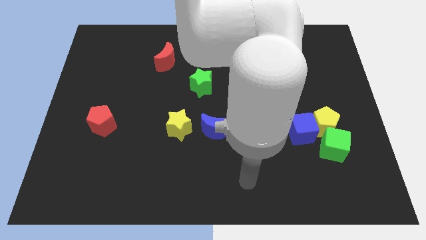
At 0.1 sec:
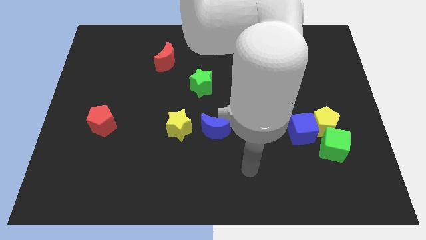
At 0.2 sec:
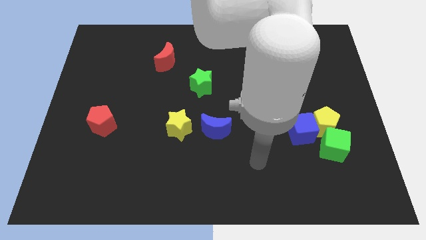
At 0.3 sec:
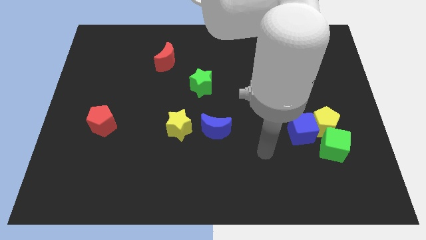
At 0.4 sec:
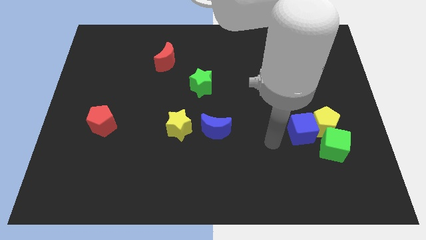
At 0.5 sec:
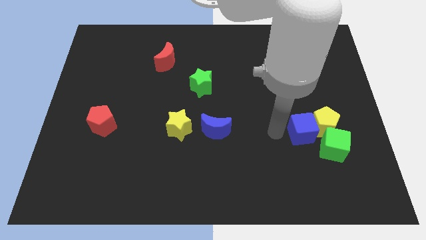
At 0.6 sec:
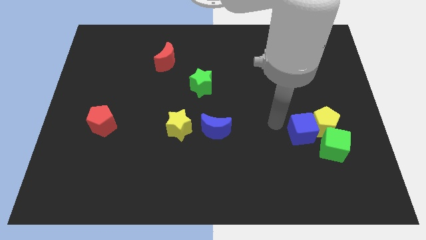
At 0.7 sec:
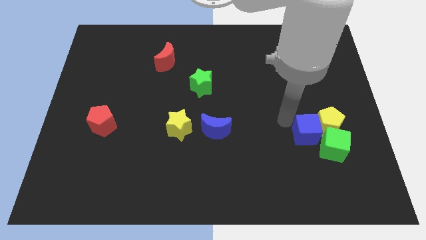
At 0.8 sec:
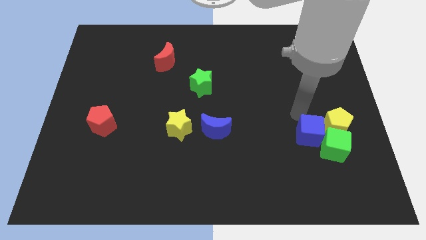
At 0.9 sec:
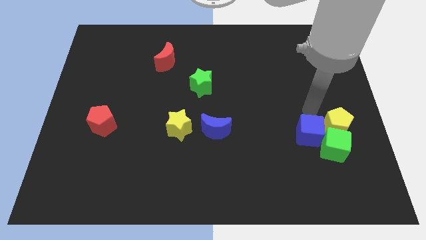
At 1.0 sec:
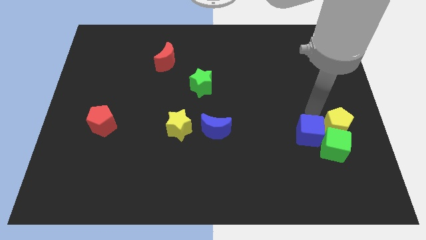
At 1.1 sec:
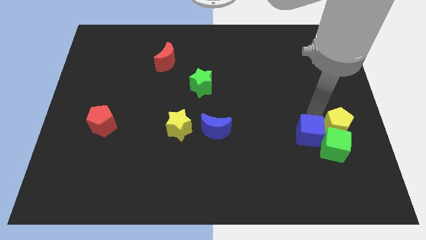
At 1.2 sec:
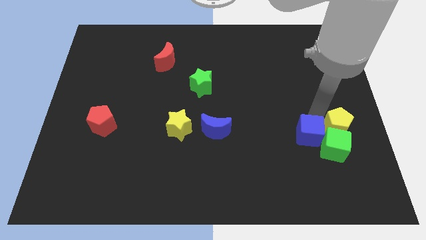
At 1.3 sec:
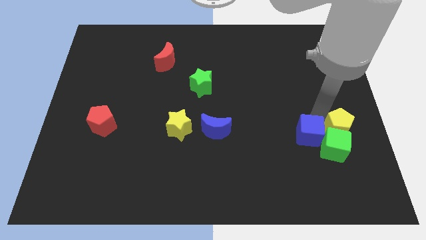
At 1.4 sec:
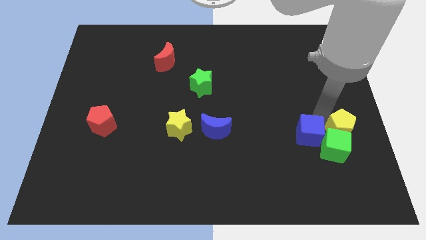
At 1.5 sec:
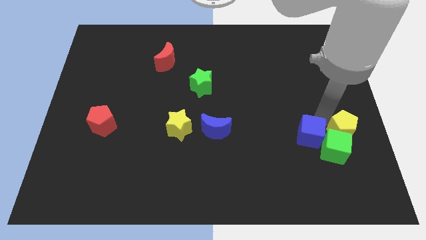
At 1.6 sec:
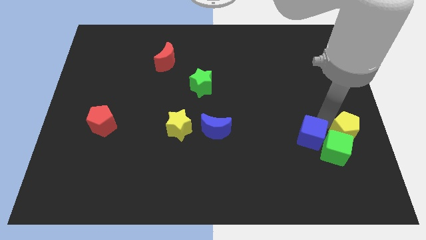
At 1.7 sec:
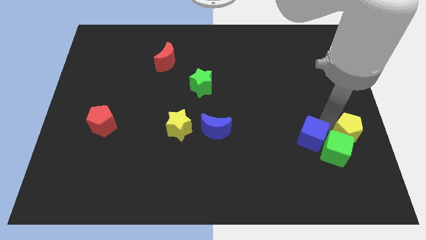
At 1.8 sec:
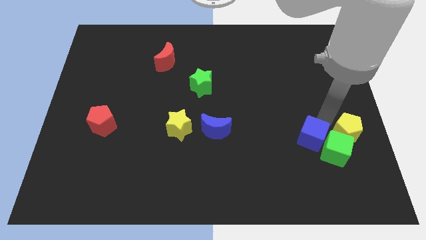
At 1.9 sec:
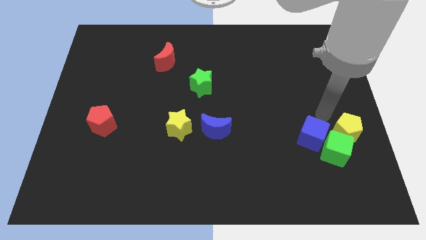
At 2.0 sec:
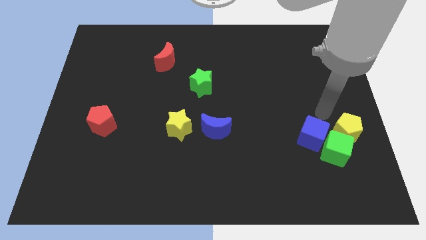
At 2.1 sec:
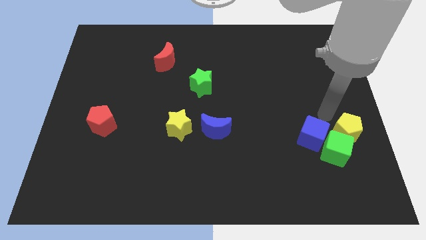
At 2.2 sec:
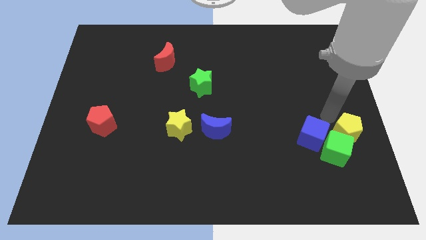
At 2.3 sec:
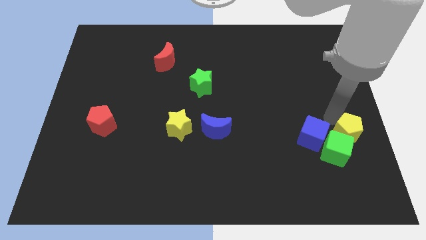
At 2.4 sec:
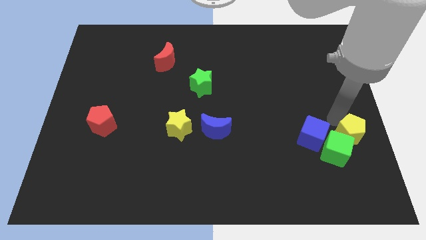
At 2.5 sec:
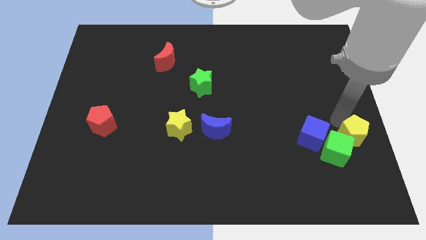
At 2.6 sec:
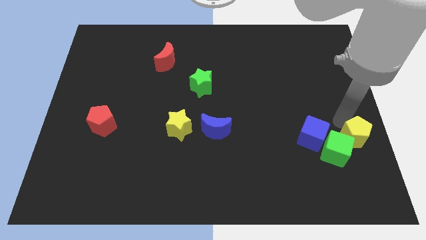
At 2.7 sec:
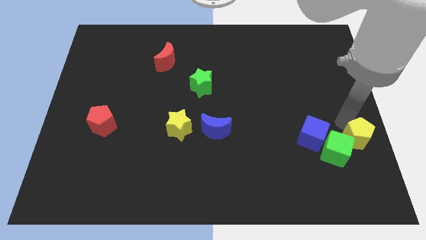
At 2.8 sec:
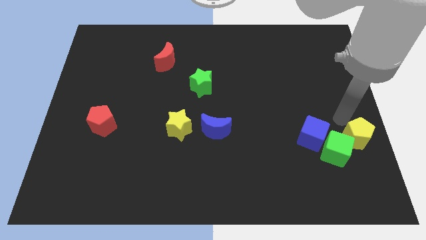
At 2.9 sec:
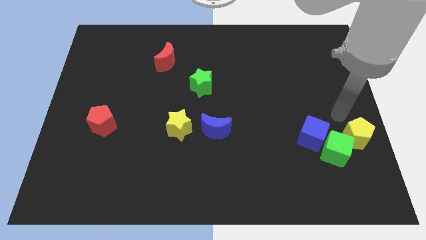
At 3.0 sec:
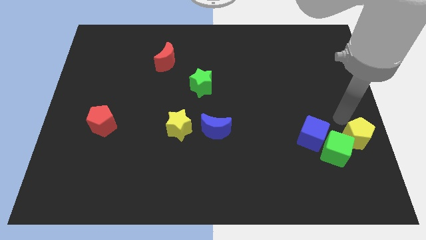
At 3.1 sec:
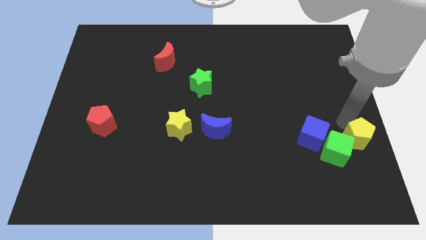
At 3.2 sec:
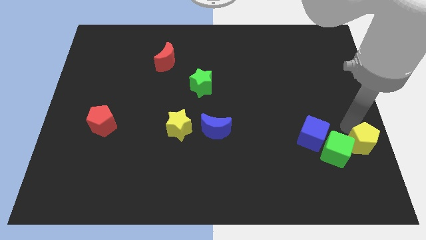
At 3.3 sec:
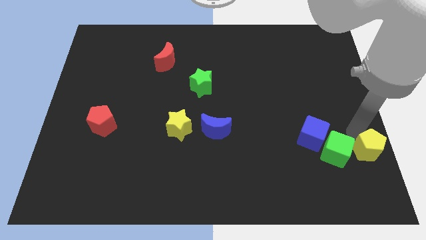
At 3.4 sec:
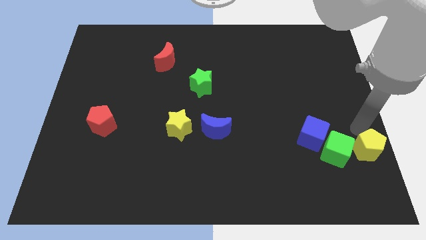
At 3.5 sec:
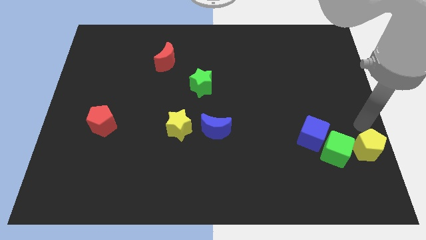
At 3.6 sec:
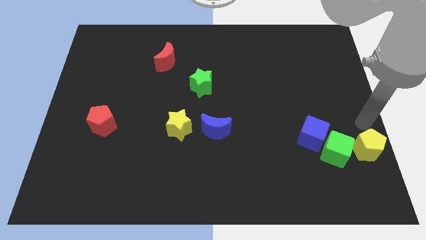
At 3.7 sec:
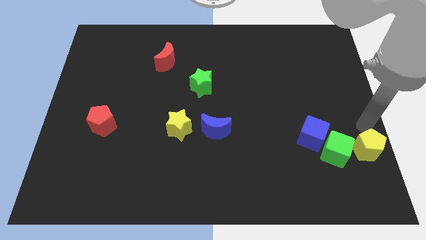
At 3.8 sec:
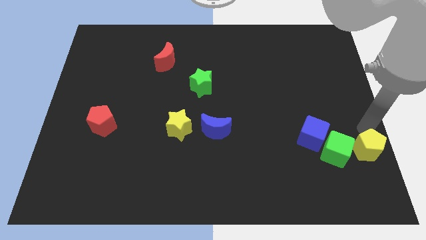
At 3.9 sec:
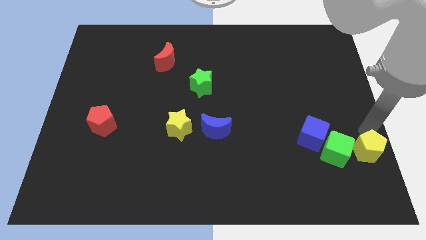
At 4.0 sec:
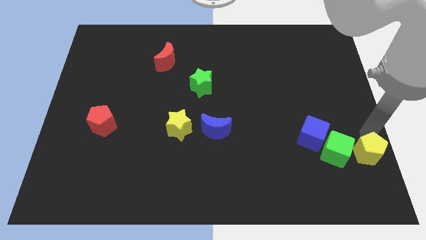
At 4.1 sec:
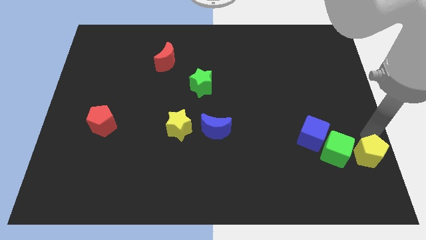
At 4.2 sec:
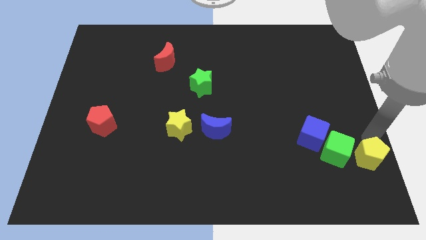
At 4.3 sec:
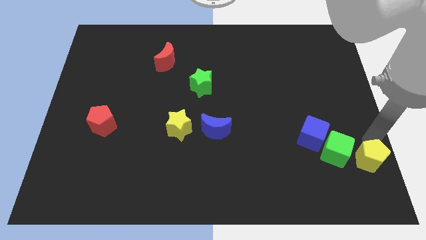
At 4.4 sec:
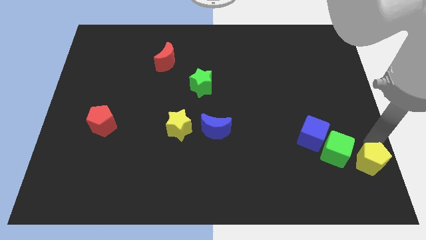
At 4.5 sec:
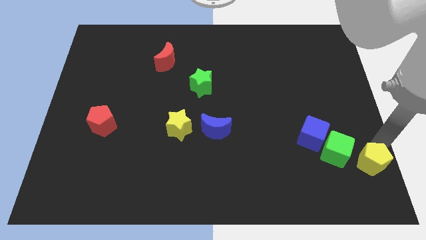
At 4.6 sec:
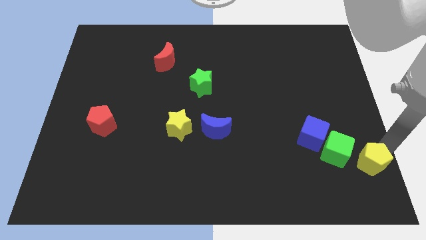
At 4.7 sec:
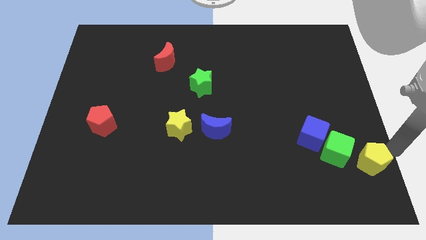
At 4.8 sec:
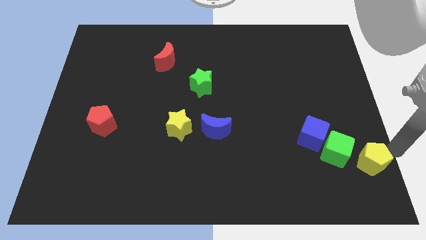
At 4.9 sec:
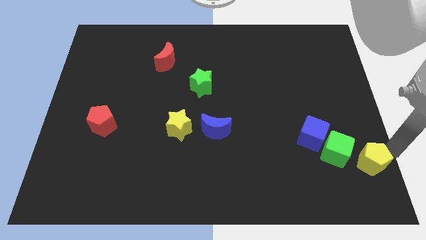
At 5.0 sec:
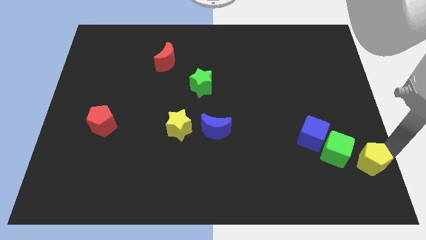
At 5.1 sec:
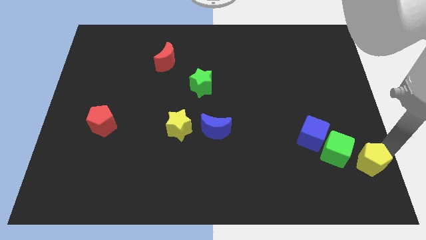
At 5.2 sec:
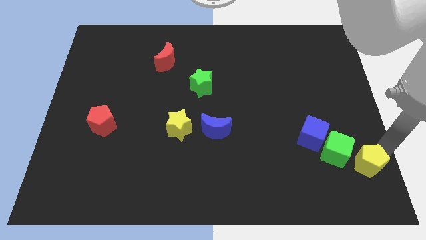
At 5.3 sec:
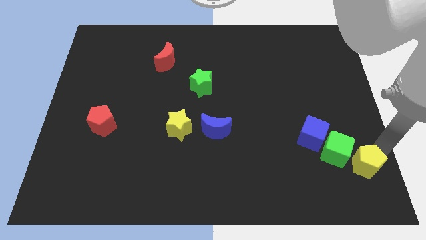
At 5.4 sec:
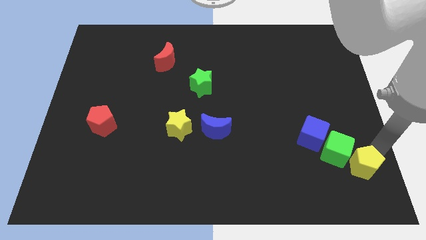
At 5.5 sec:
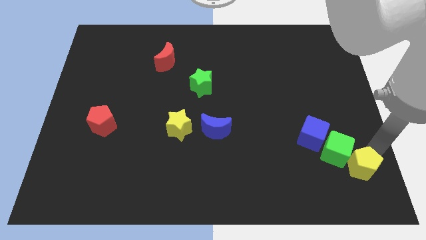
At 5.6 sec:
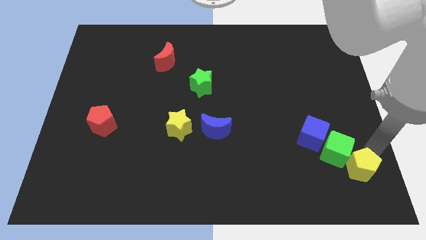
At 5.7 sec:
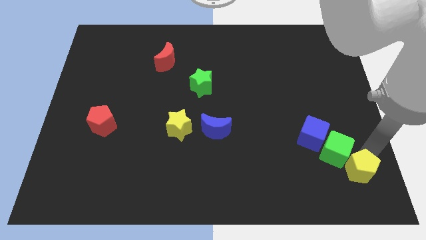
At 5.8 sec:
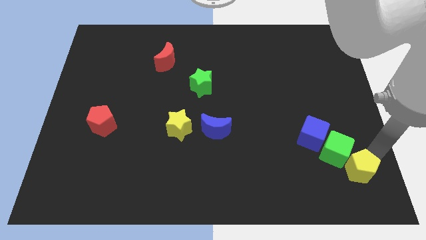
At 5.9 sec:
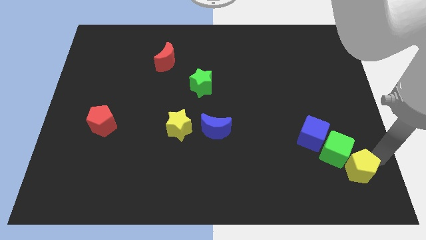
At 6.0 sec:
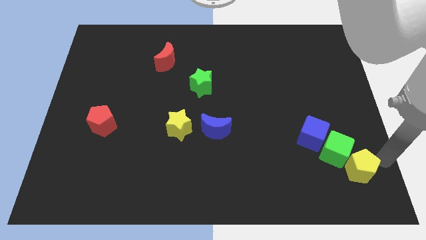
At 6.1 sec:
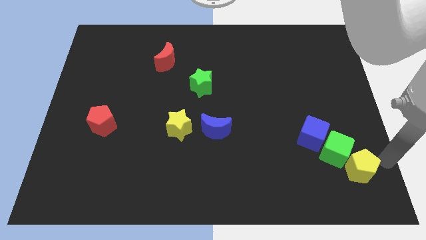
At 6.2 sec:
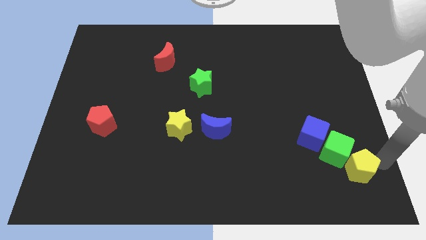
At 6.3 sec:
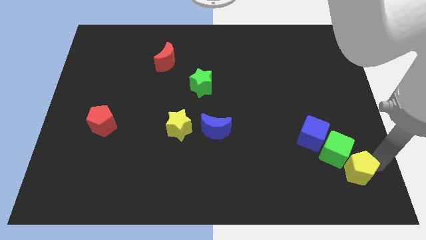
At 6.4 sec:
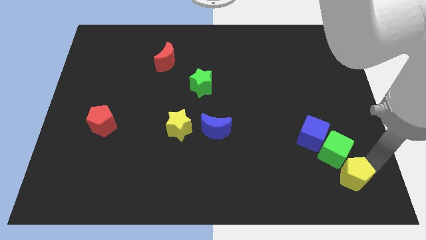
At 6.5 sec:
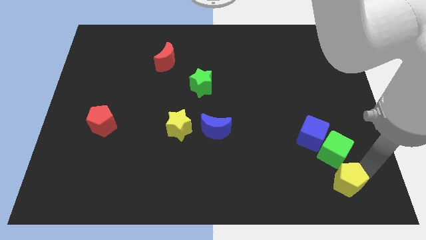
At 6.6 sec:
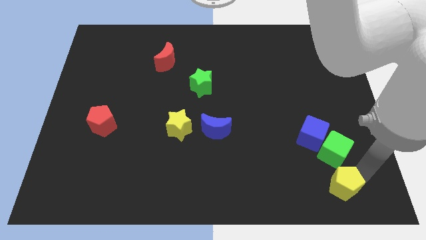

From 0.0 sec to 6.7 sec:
put the yellow pentagon below the blue cube

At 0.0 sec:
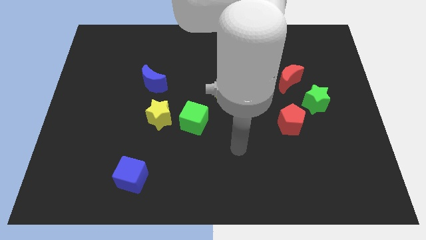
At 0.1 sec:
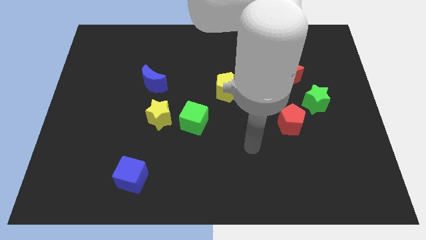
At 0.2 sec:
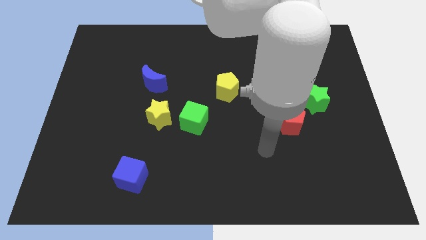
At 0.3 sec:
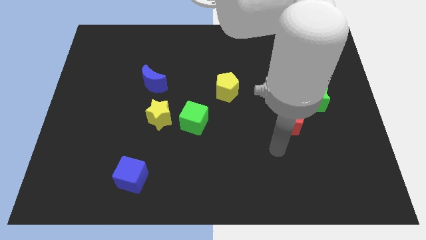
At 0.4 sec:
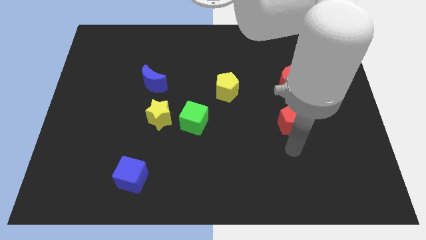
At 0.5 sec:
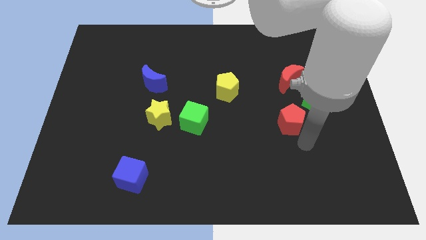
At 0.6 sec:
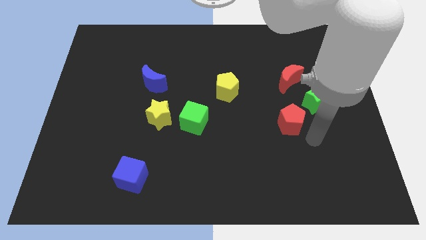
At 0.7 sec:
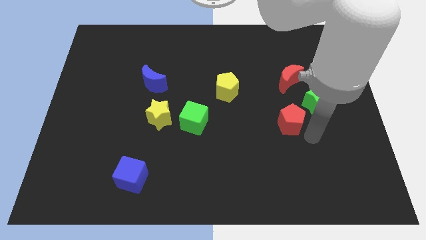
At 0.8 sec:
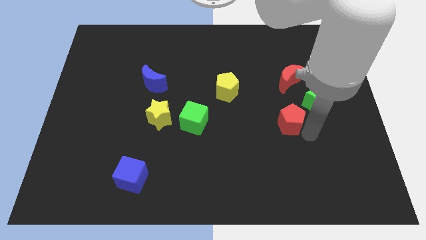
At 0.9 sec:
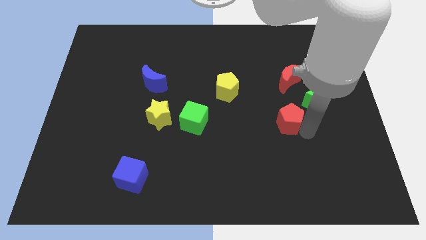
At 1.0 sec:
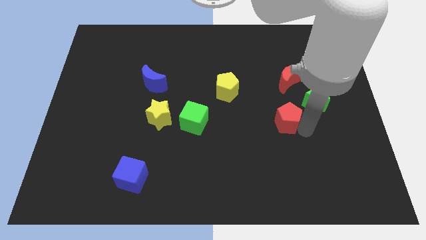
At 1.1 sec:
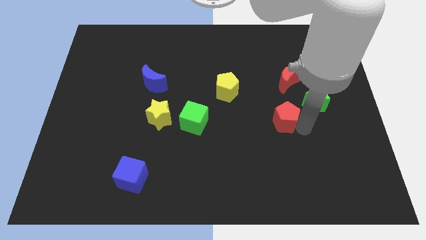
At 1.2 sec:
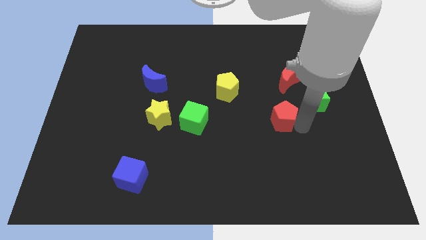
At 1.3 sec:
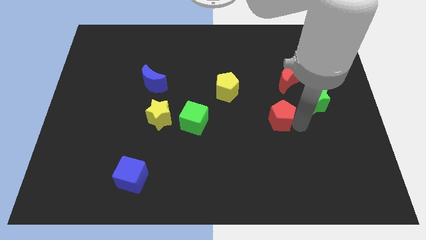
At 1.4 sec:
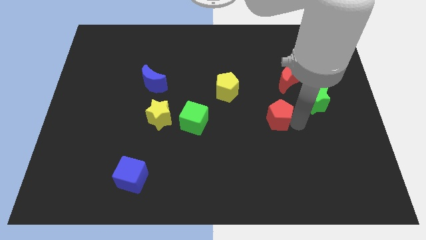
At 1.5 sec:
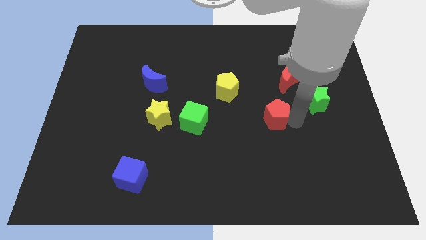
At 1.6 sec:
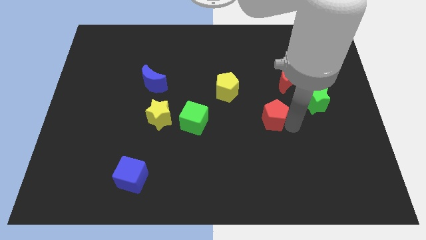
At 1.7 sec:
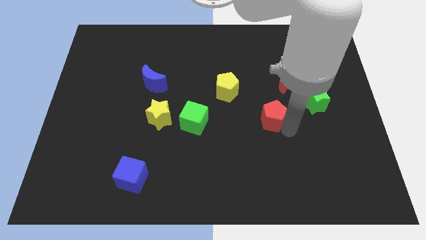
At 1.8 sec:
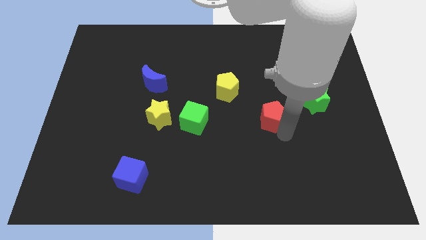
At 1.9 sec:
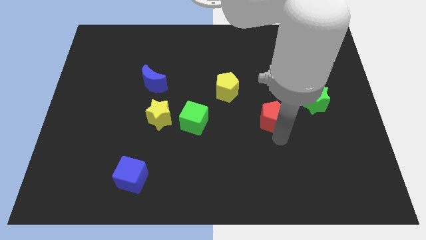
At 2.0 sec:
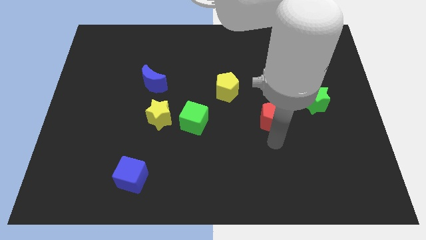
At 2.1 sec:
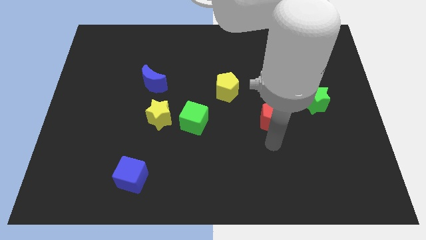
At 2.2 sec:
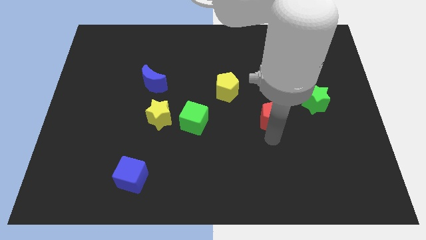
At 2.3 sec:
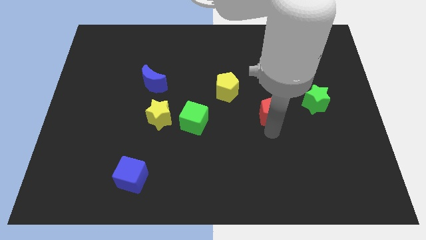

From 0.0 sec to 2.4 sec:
move the red pentagon to the bottom left side of the red moon
